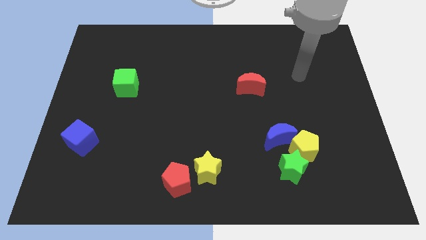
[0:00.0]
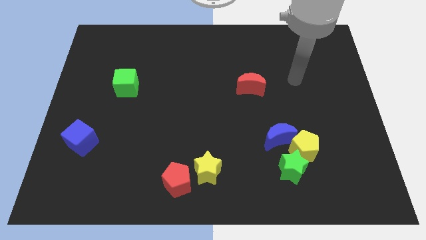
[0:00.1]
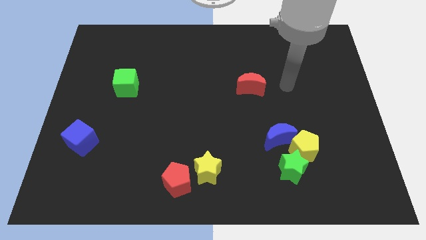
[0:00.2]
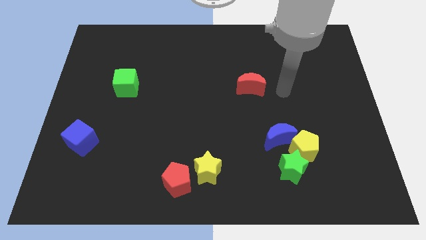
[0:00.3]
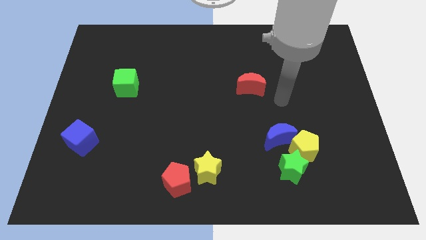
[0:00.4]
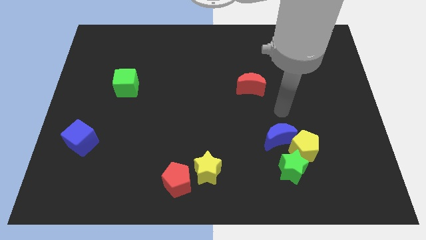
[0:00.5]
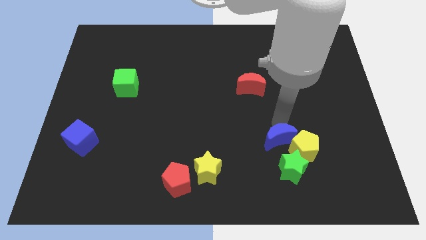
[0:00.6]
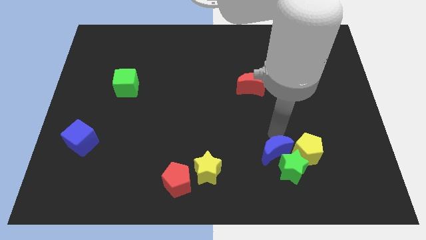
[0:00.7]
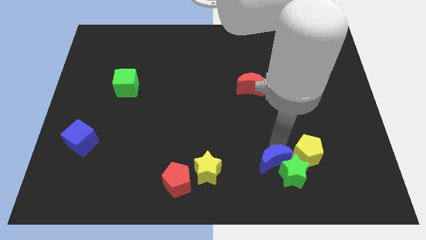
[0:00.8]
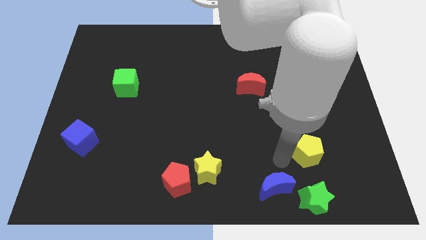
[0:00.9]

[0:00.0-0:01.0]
separate the yellow pentagon from the green star and blue moon

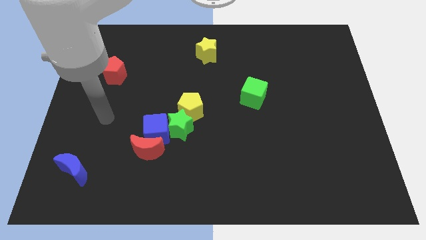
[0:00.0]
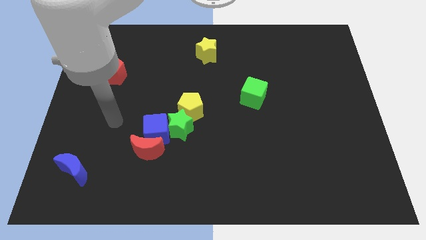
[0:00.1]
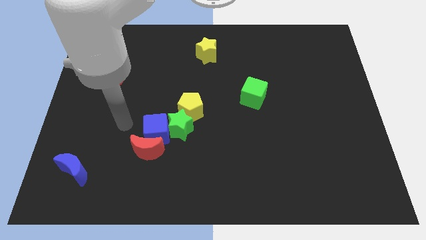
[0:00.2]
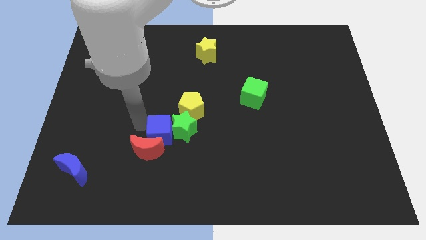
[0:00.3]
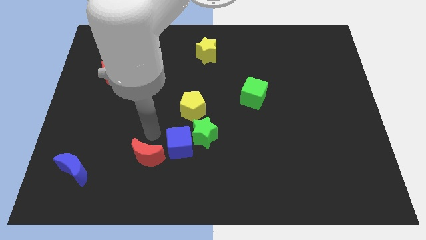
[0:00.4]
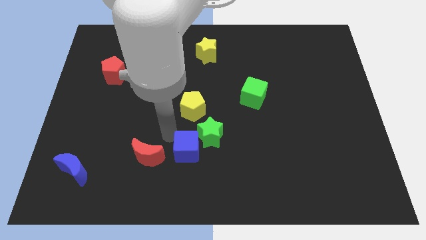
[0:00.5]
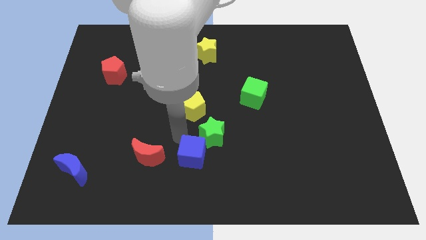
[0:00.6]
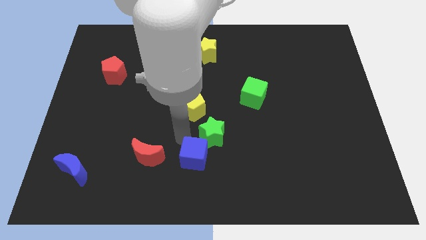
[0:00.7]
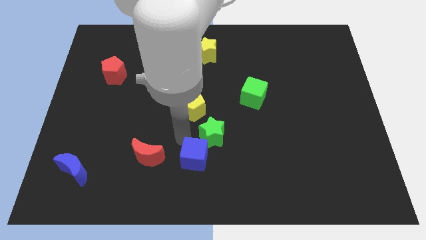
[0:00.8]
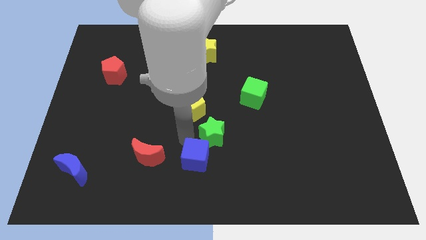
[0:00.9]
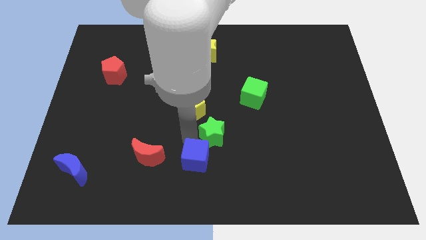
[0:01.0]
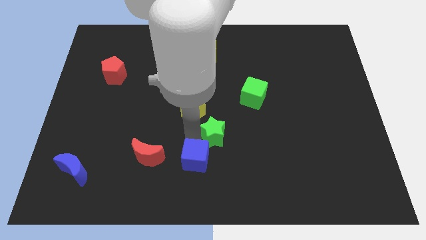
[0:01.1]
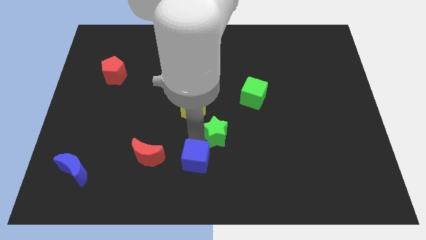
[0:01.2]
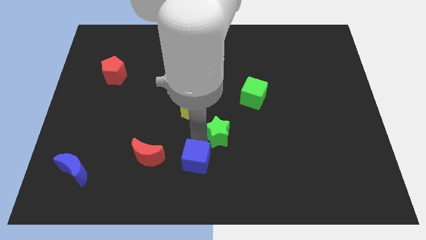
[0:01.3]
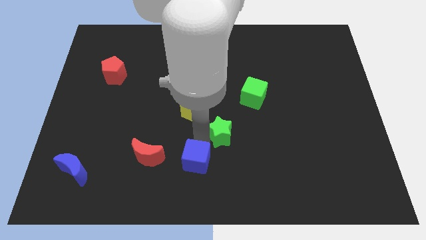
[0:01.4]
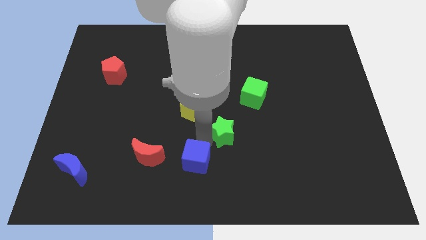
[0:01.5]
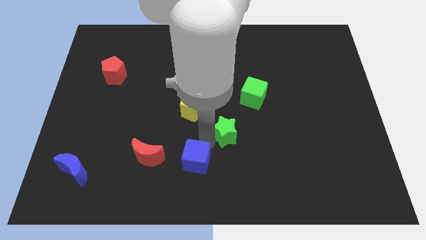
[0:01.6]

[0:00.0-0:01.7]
move the green star away from the group of blocks

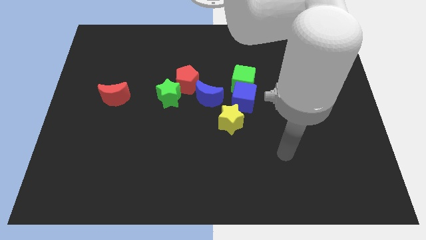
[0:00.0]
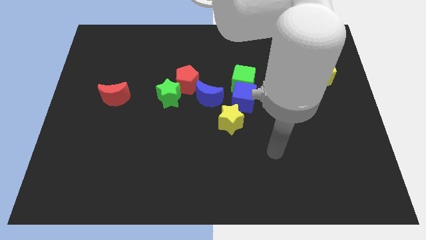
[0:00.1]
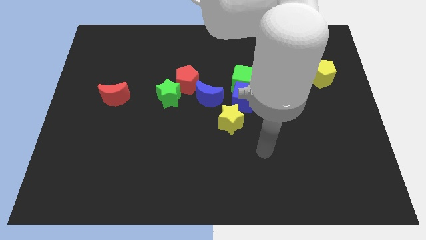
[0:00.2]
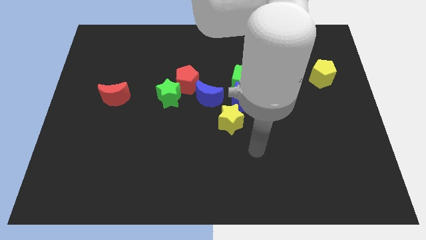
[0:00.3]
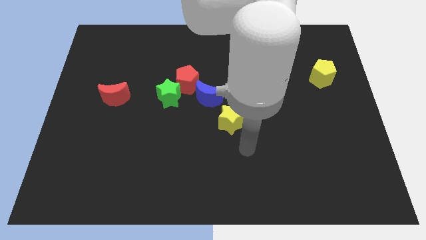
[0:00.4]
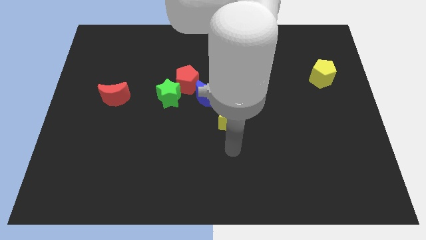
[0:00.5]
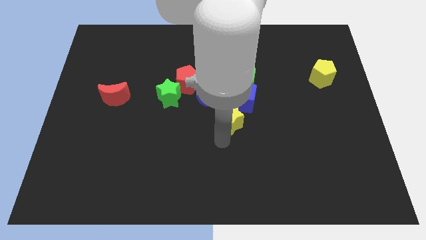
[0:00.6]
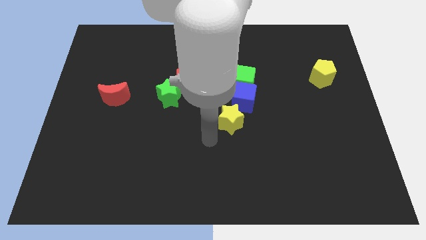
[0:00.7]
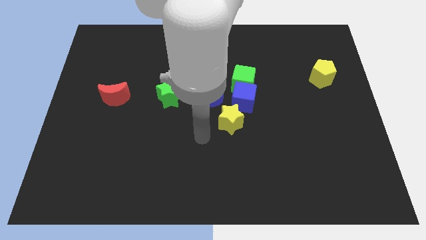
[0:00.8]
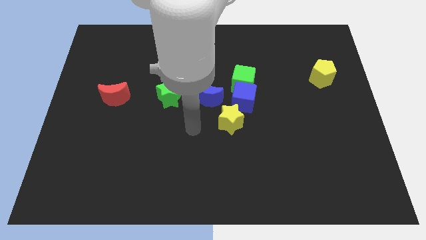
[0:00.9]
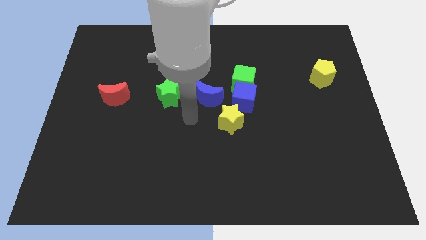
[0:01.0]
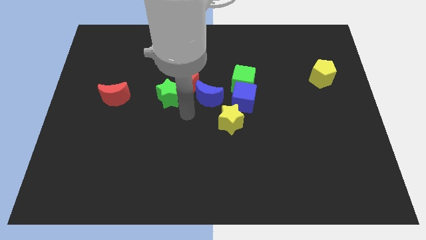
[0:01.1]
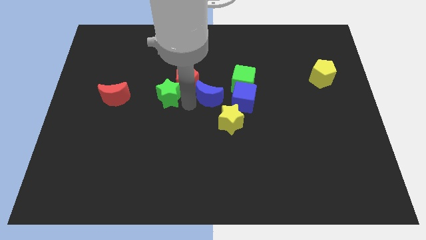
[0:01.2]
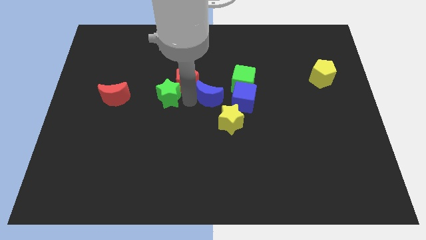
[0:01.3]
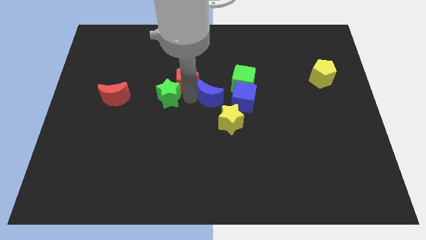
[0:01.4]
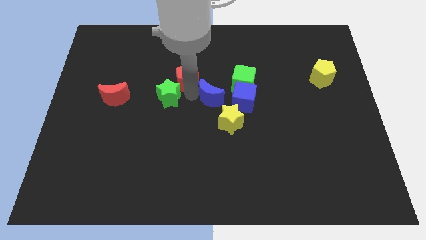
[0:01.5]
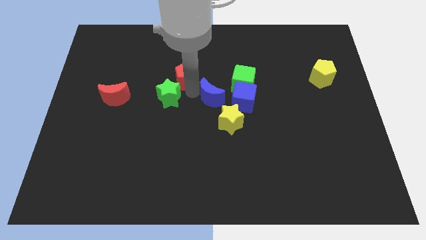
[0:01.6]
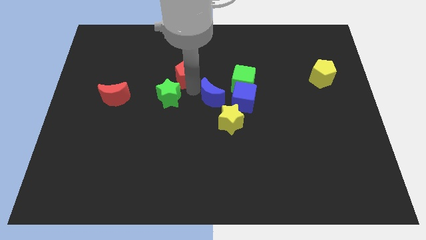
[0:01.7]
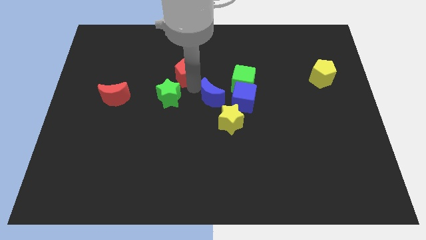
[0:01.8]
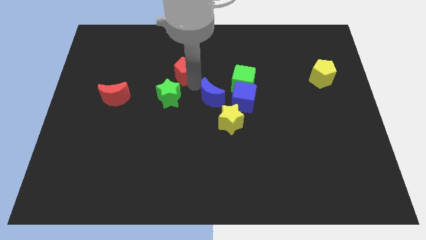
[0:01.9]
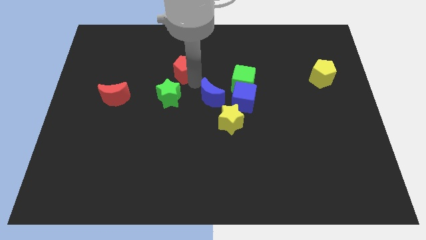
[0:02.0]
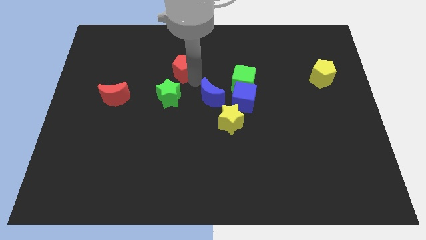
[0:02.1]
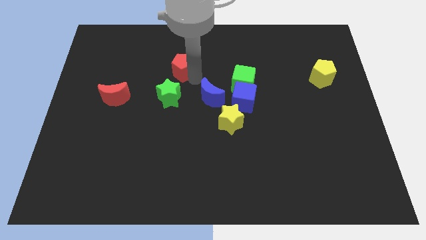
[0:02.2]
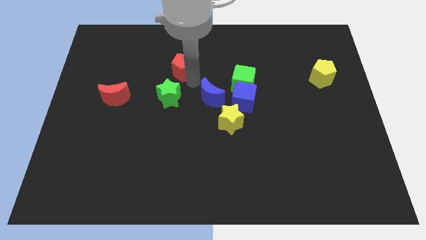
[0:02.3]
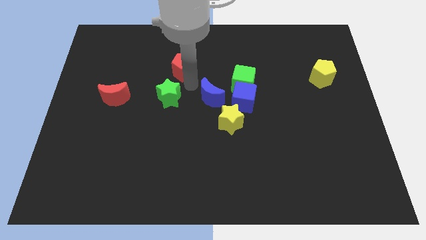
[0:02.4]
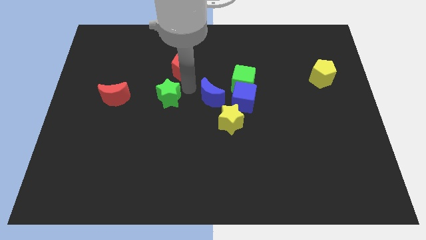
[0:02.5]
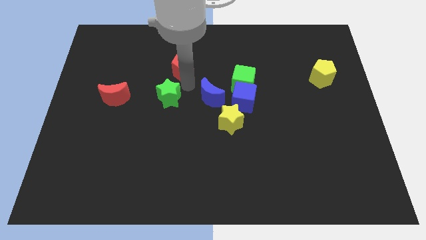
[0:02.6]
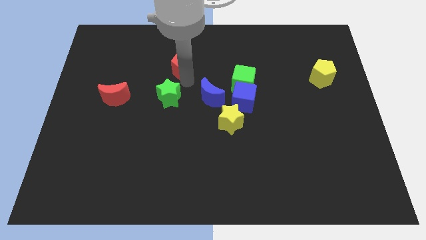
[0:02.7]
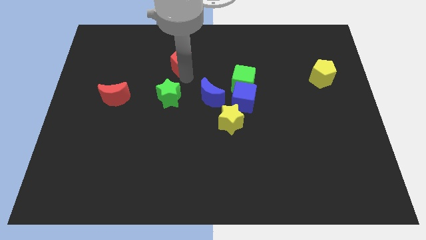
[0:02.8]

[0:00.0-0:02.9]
pull the red pentagon apart from the green star and blue moon

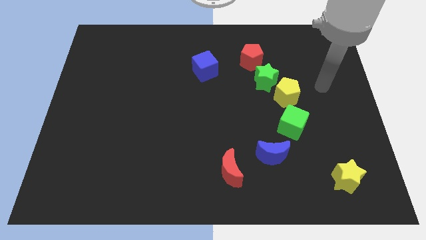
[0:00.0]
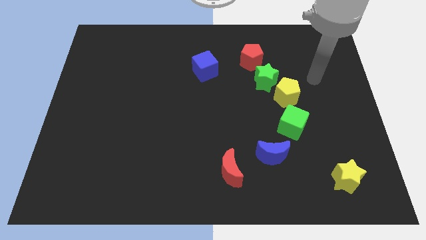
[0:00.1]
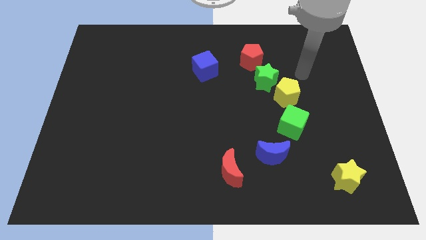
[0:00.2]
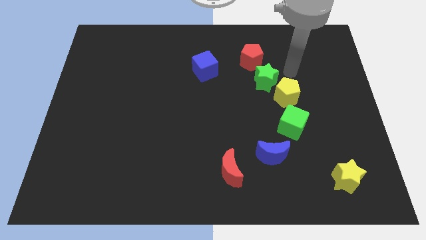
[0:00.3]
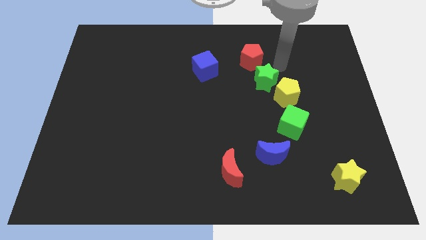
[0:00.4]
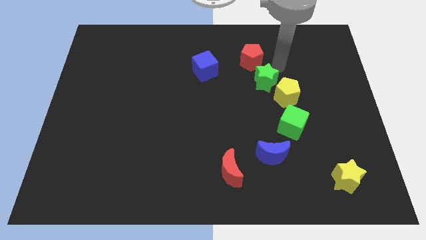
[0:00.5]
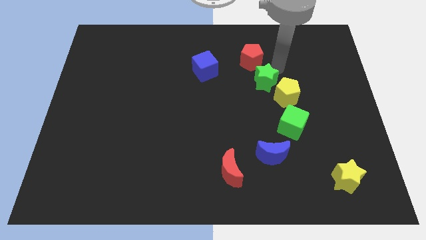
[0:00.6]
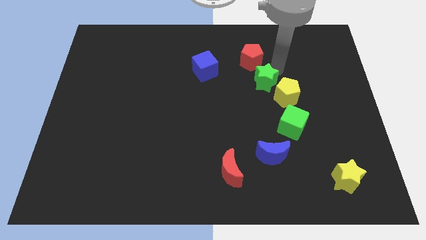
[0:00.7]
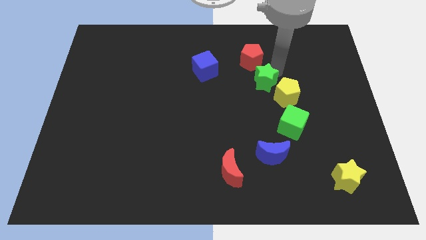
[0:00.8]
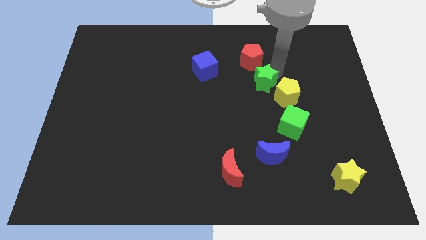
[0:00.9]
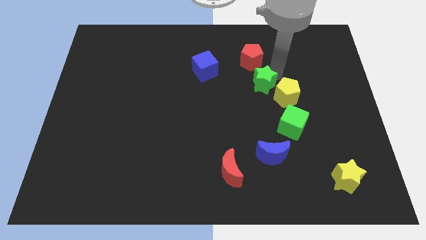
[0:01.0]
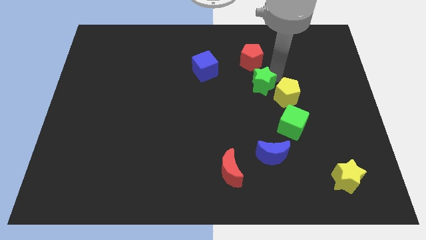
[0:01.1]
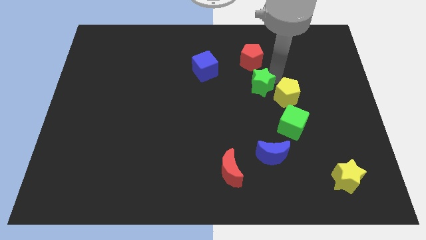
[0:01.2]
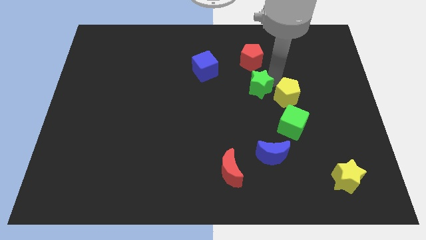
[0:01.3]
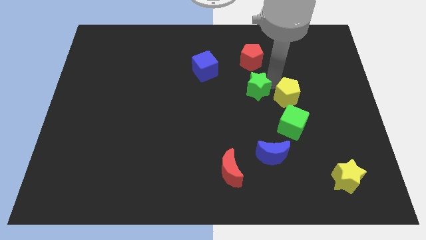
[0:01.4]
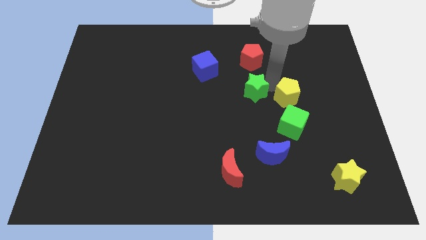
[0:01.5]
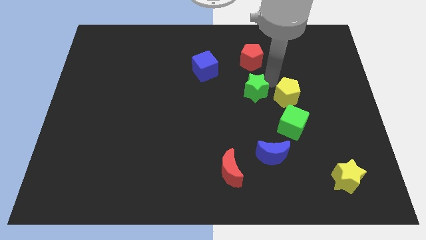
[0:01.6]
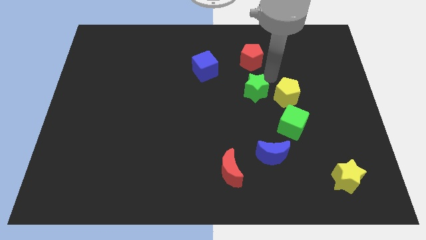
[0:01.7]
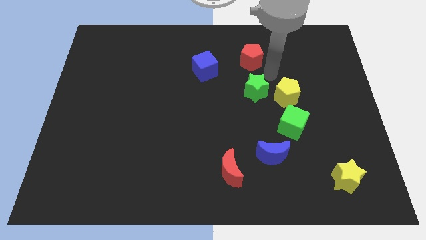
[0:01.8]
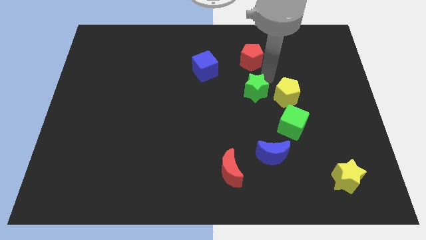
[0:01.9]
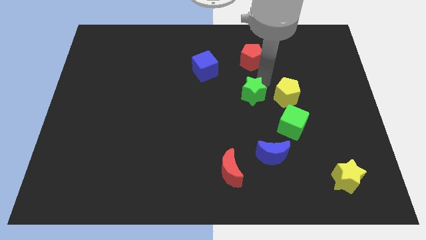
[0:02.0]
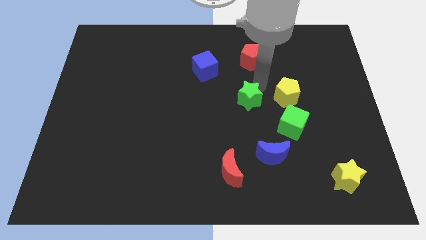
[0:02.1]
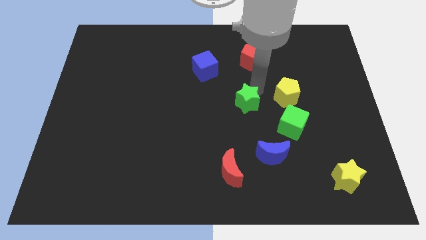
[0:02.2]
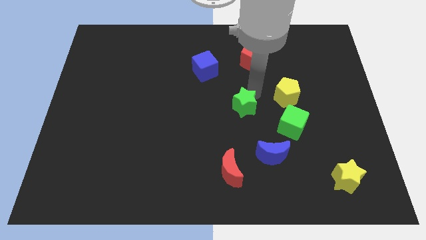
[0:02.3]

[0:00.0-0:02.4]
separate the green star from the yellow pentagon and red pentagon

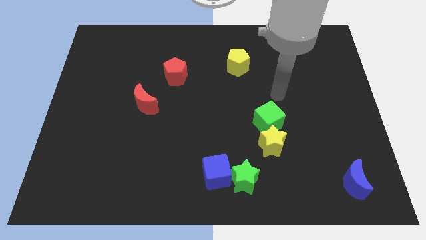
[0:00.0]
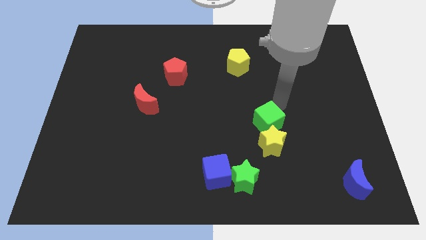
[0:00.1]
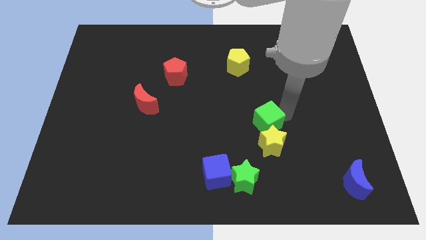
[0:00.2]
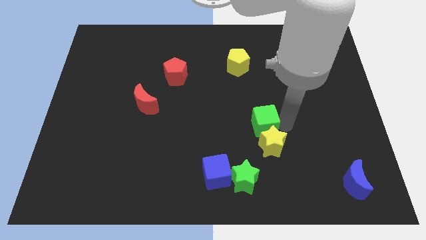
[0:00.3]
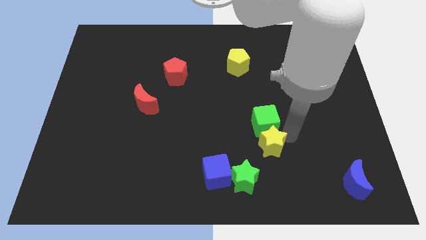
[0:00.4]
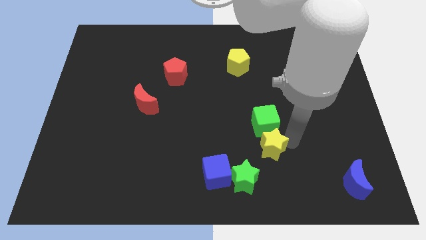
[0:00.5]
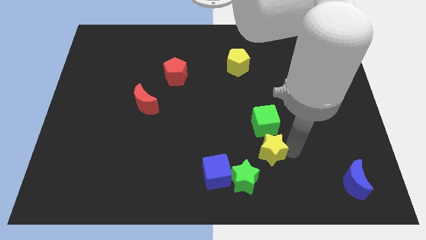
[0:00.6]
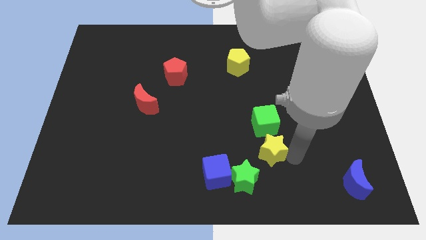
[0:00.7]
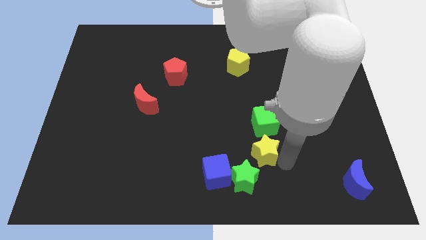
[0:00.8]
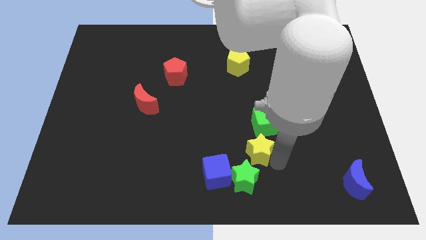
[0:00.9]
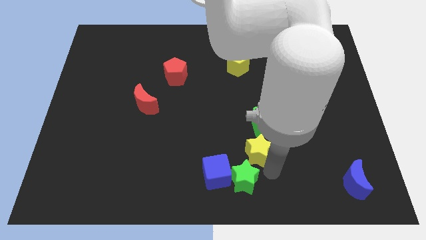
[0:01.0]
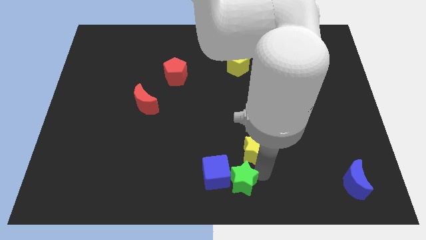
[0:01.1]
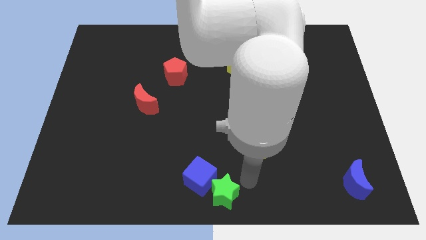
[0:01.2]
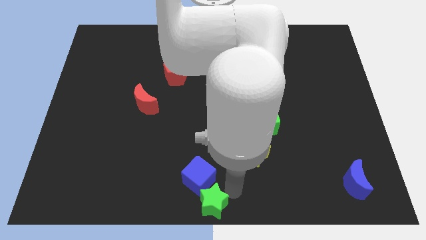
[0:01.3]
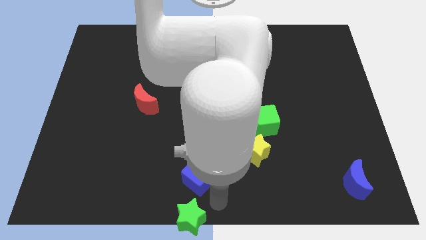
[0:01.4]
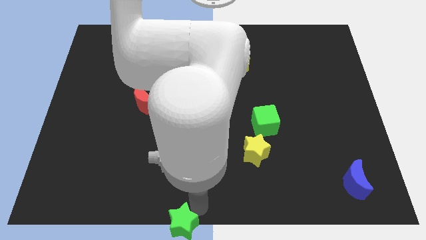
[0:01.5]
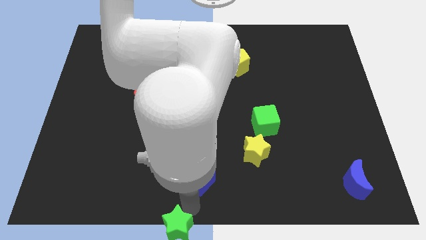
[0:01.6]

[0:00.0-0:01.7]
separate the blue cube from the green star
